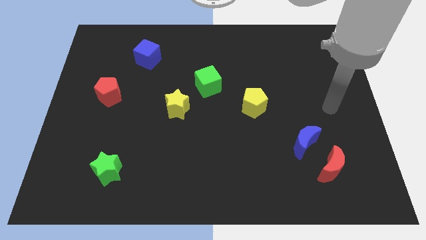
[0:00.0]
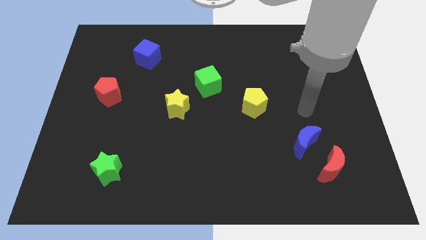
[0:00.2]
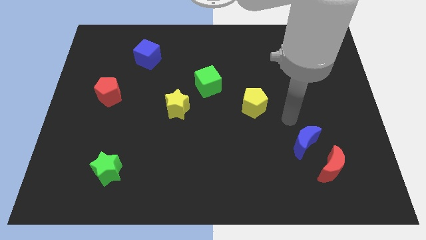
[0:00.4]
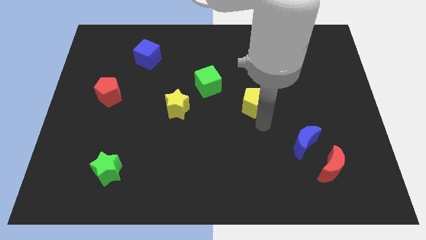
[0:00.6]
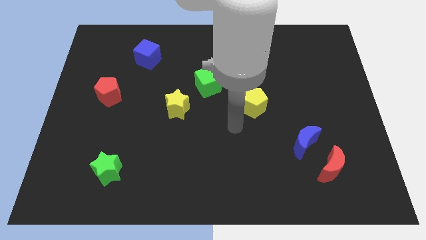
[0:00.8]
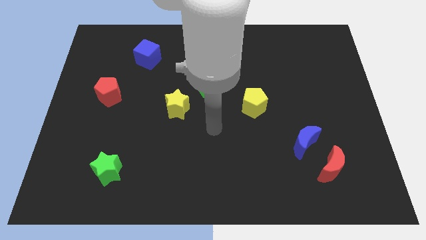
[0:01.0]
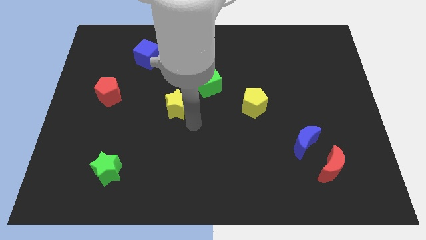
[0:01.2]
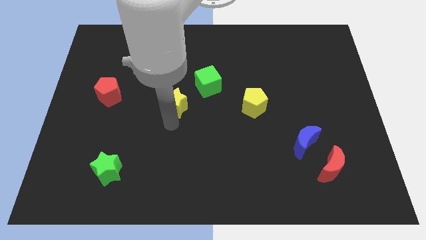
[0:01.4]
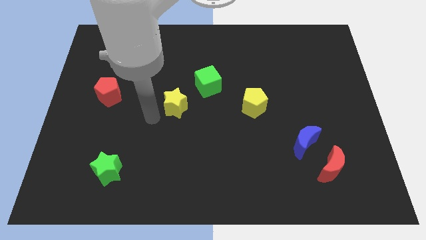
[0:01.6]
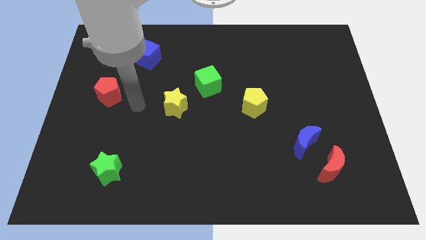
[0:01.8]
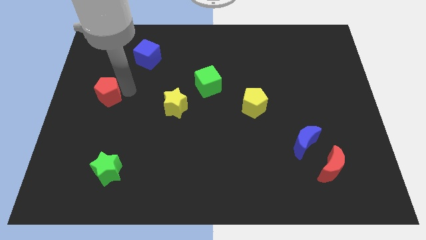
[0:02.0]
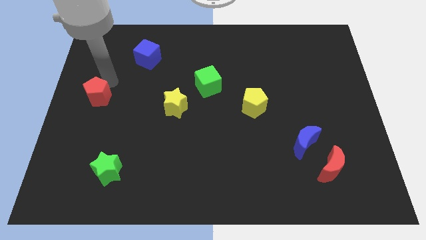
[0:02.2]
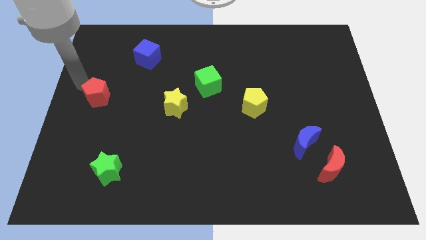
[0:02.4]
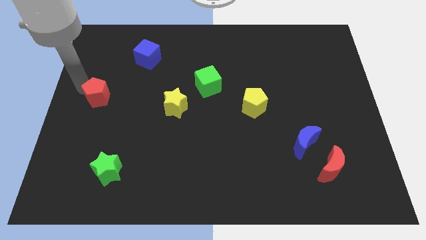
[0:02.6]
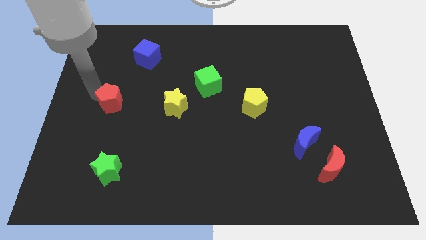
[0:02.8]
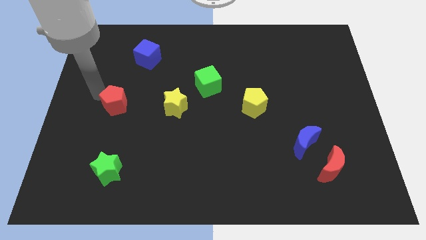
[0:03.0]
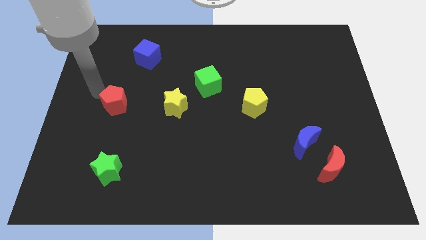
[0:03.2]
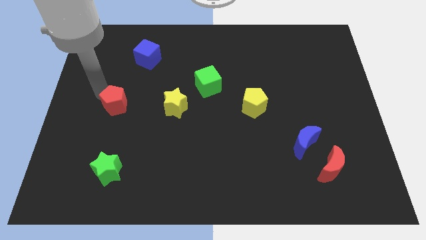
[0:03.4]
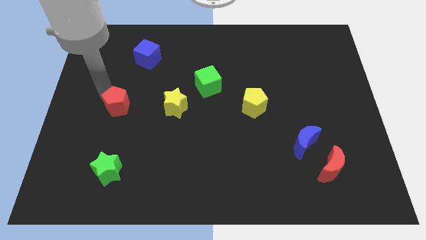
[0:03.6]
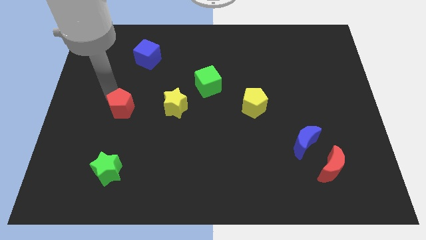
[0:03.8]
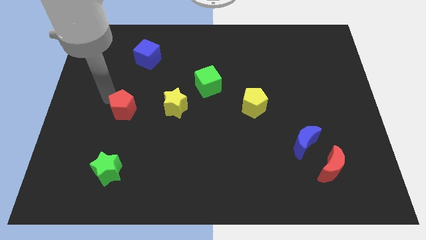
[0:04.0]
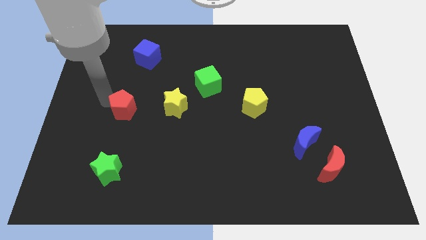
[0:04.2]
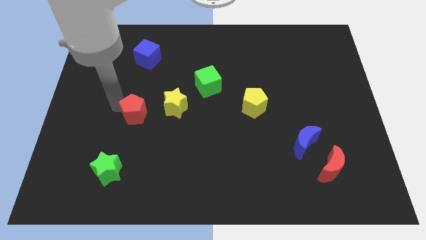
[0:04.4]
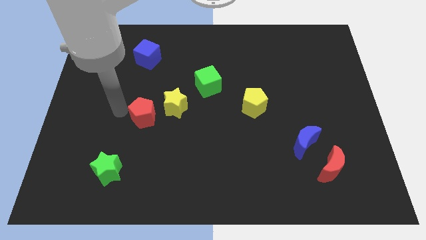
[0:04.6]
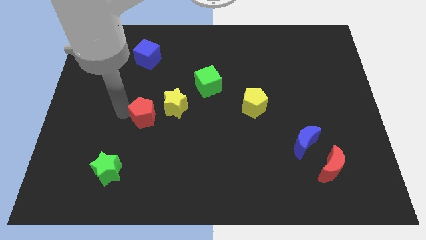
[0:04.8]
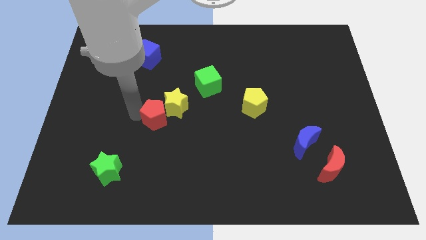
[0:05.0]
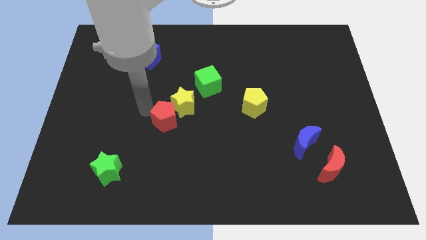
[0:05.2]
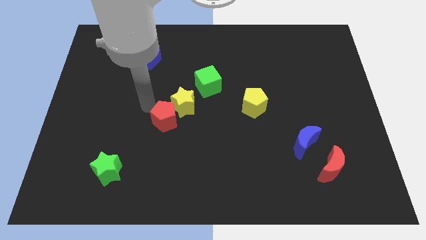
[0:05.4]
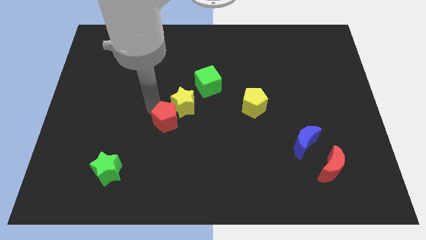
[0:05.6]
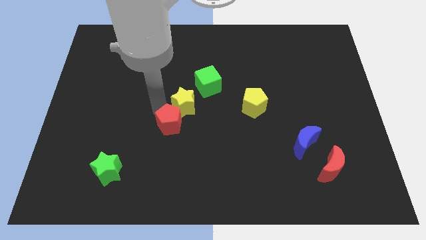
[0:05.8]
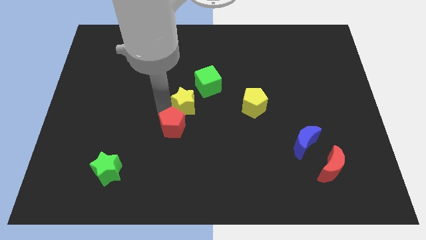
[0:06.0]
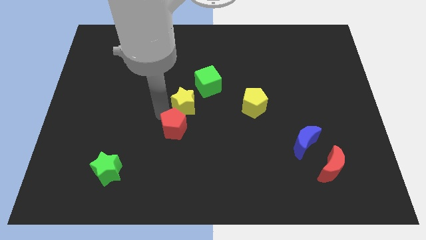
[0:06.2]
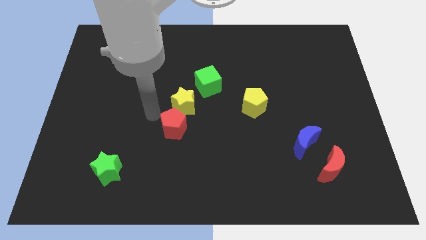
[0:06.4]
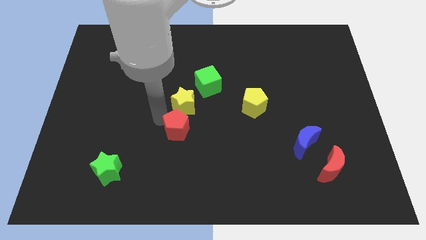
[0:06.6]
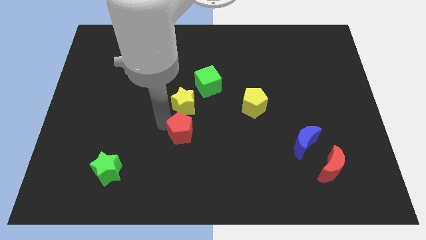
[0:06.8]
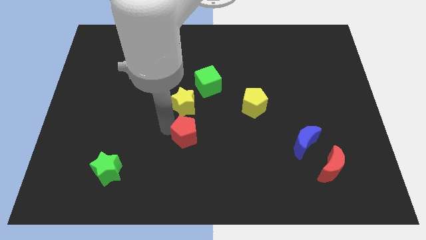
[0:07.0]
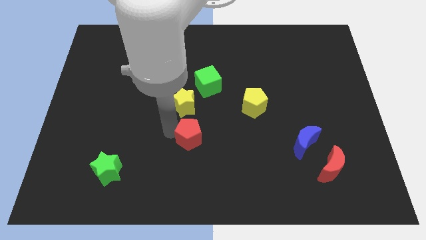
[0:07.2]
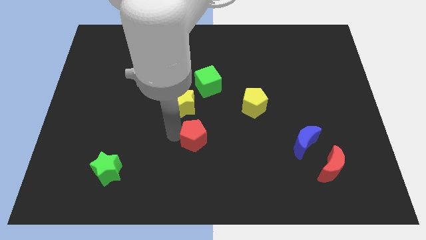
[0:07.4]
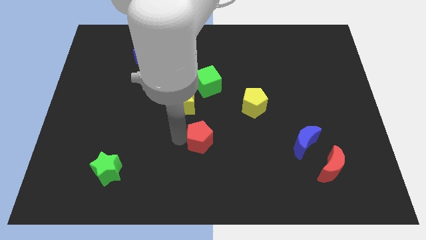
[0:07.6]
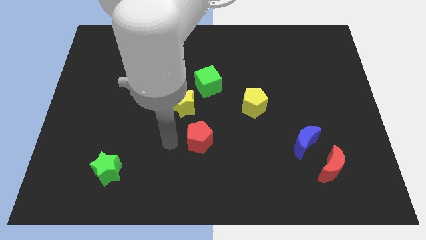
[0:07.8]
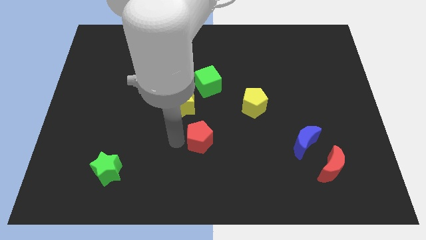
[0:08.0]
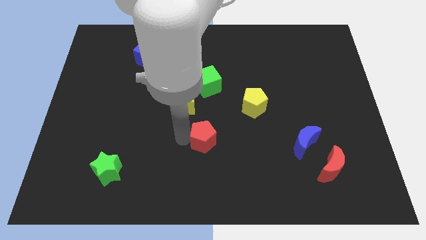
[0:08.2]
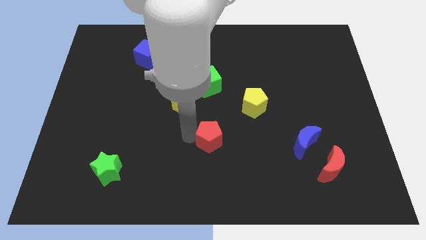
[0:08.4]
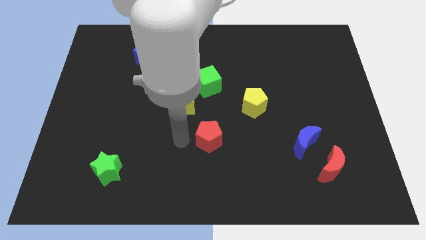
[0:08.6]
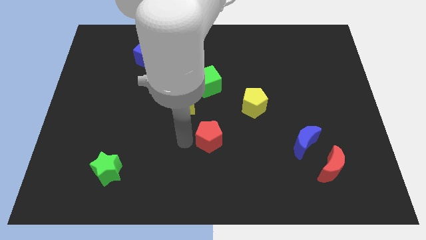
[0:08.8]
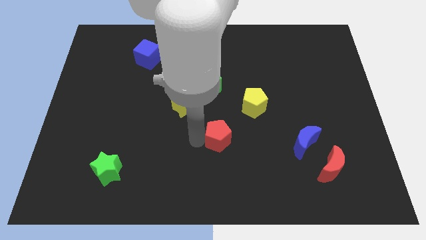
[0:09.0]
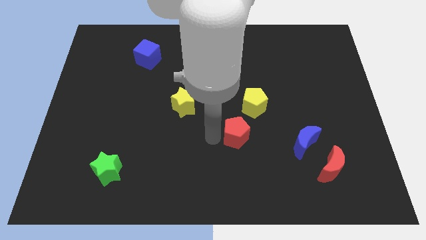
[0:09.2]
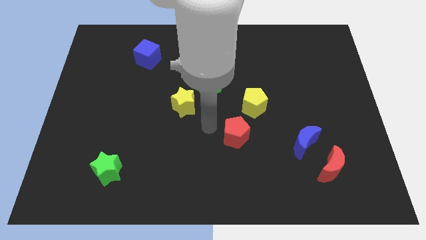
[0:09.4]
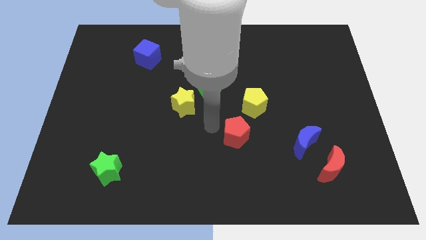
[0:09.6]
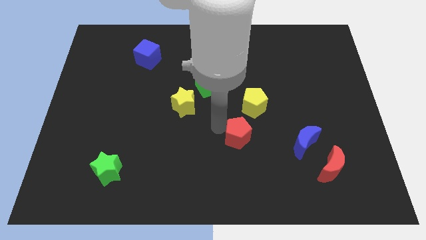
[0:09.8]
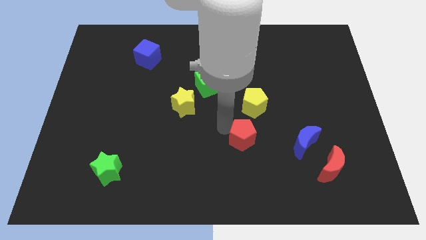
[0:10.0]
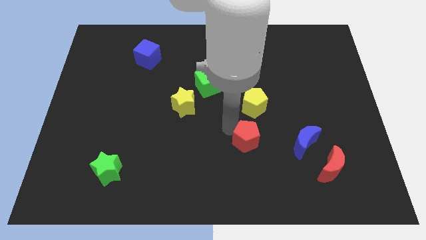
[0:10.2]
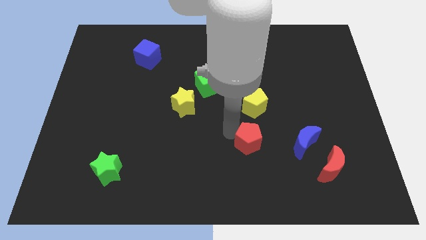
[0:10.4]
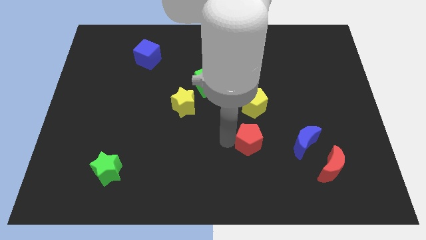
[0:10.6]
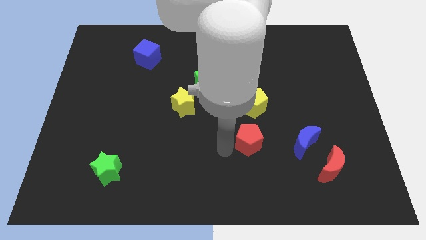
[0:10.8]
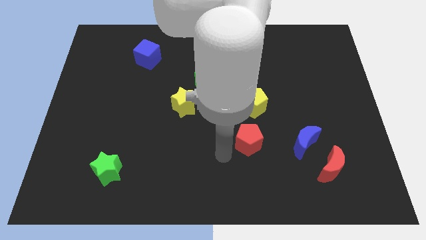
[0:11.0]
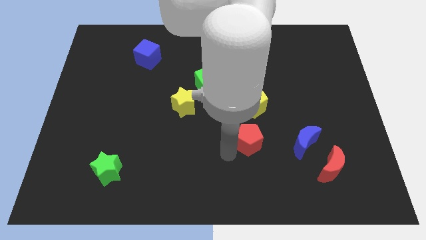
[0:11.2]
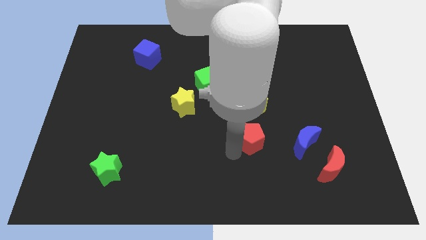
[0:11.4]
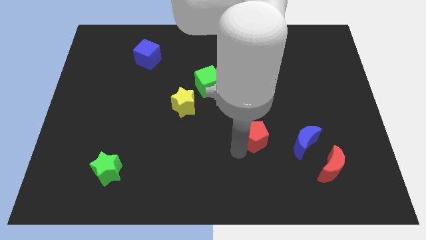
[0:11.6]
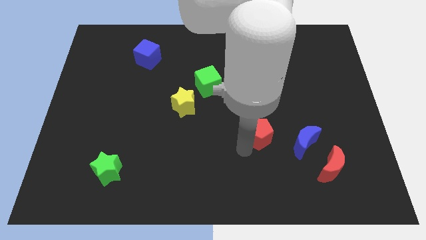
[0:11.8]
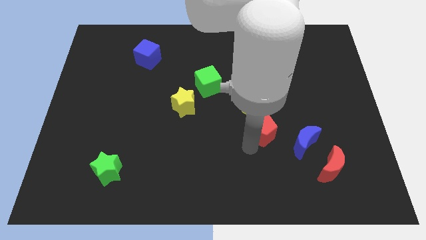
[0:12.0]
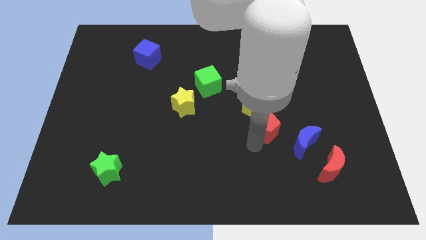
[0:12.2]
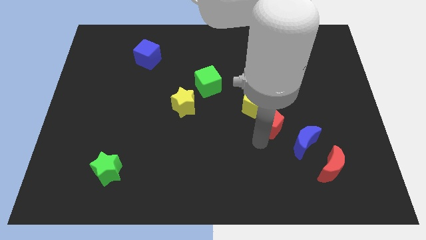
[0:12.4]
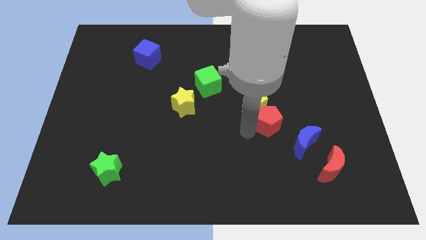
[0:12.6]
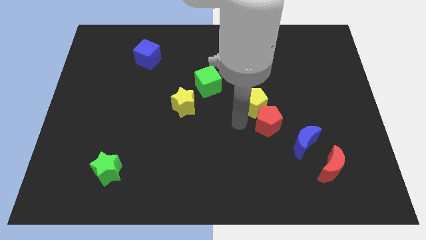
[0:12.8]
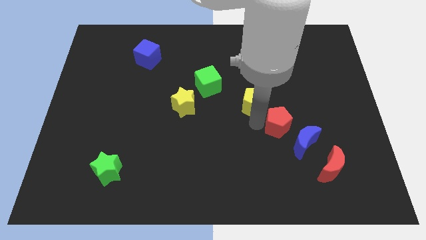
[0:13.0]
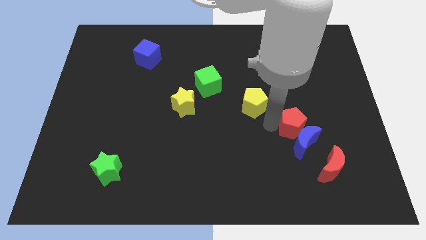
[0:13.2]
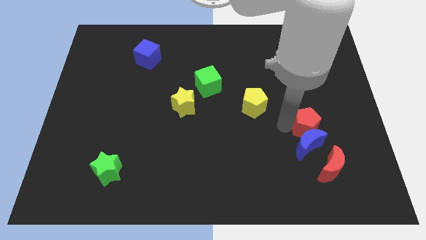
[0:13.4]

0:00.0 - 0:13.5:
push the red pentagon to the top side of the red moon

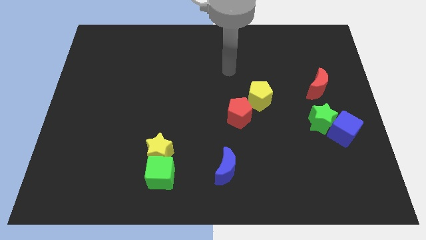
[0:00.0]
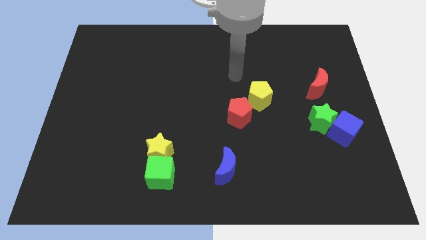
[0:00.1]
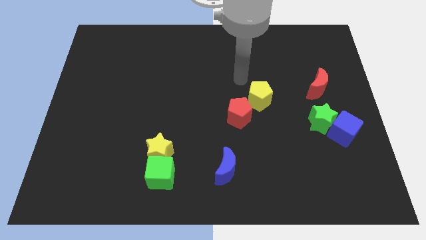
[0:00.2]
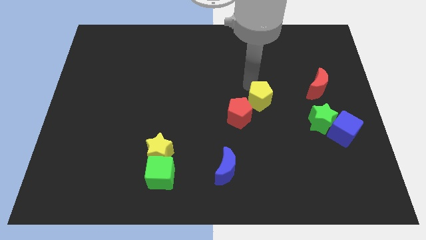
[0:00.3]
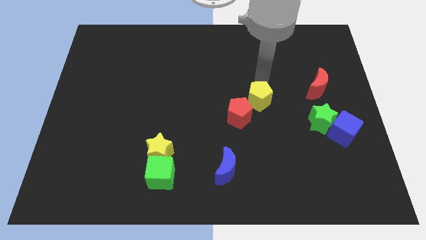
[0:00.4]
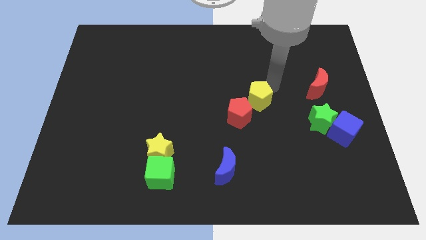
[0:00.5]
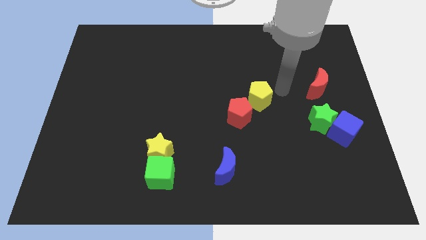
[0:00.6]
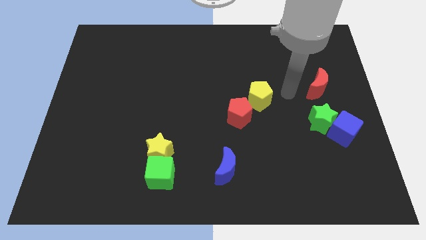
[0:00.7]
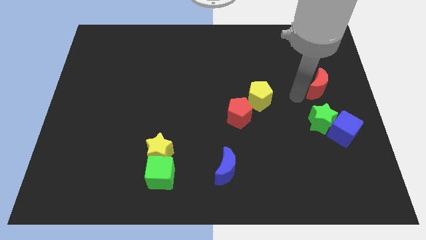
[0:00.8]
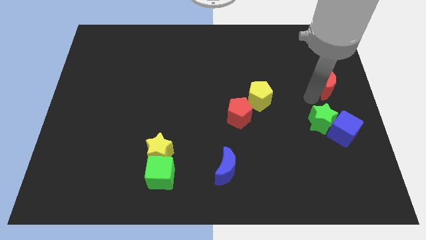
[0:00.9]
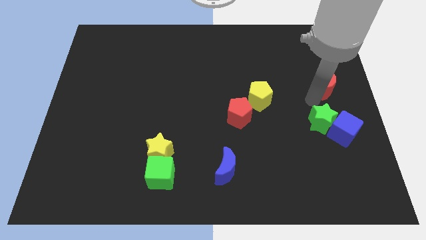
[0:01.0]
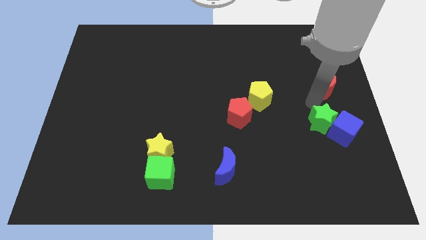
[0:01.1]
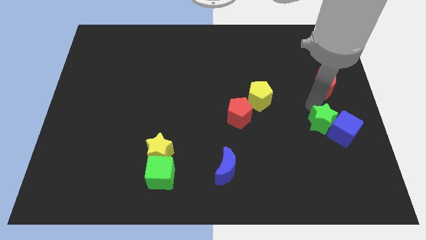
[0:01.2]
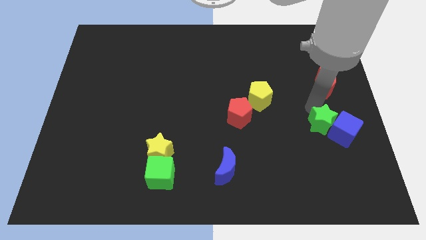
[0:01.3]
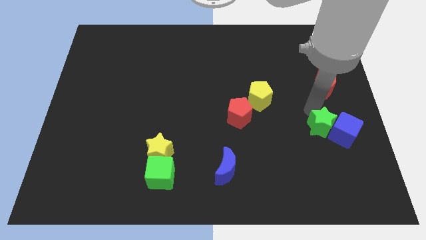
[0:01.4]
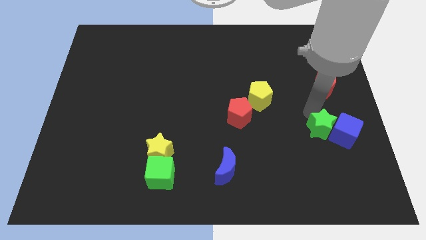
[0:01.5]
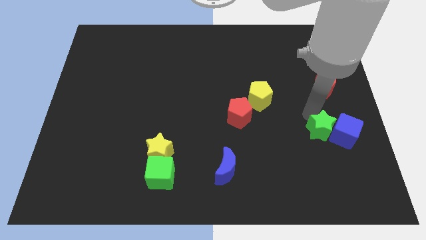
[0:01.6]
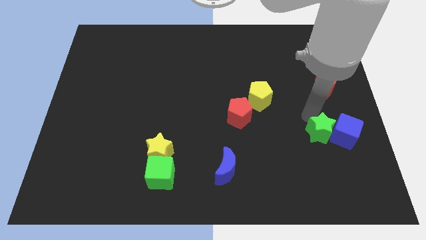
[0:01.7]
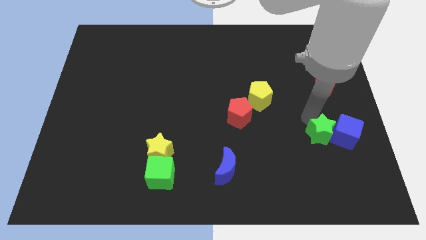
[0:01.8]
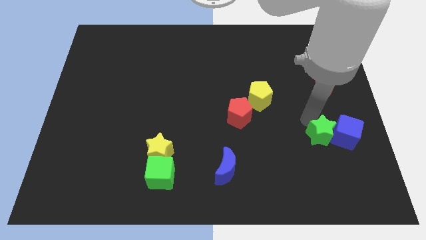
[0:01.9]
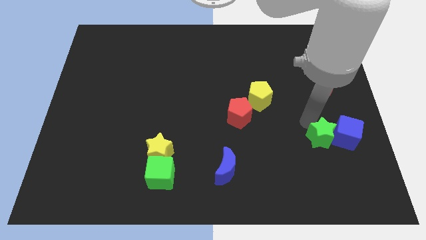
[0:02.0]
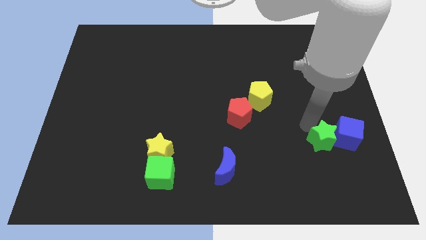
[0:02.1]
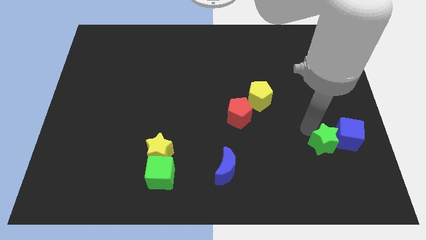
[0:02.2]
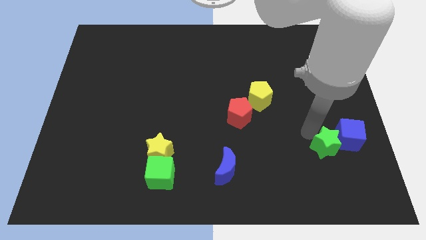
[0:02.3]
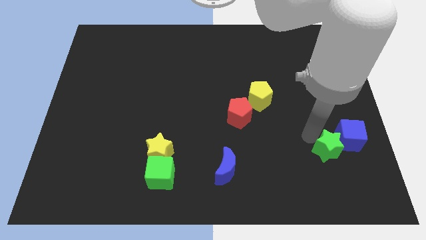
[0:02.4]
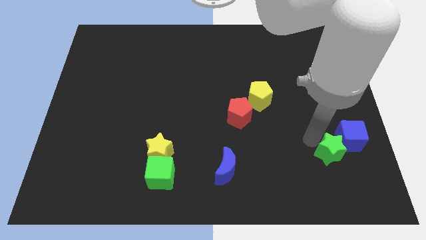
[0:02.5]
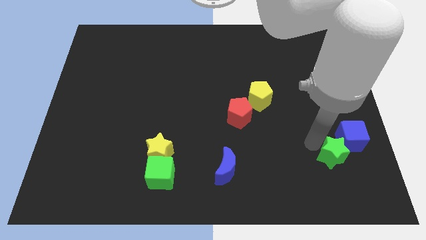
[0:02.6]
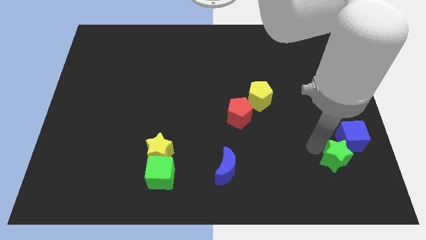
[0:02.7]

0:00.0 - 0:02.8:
move the green star to the bottom of the blue cube
